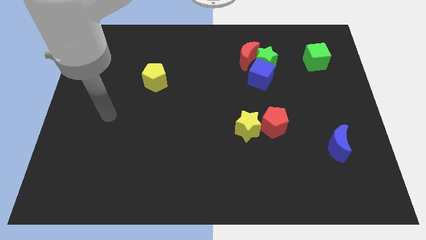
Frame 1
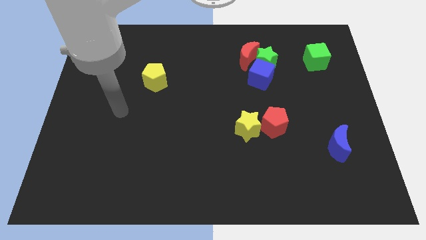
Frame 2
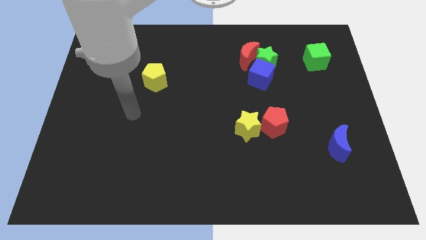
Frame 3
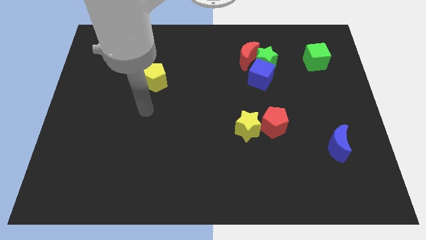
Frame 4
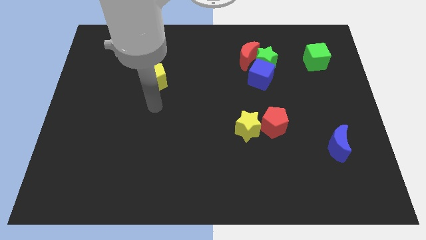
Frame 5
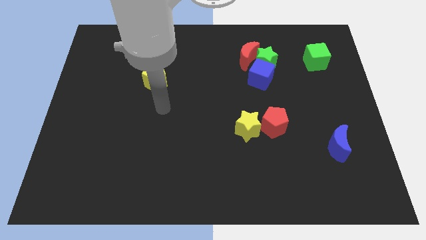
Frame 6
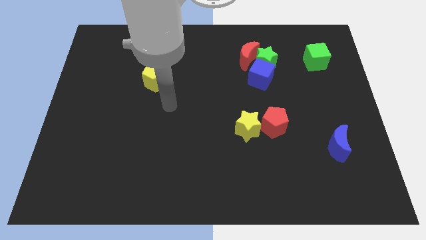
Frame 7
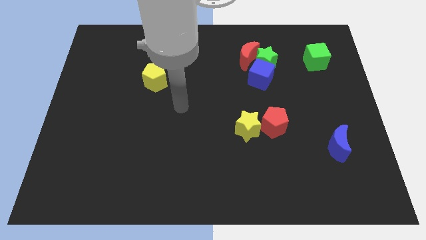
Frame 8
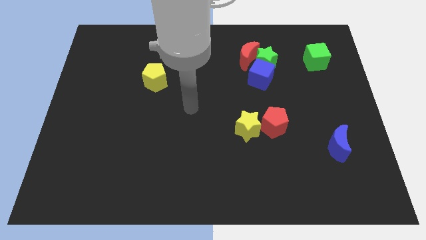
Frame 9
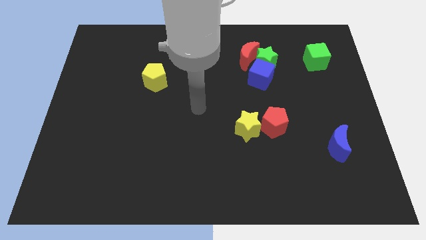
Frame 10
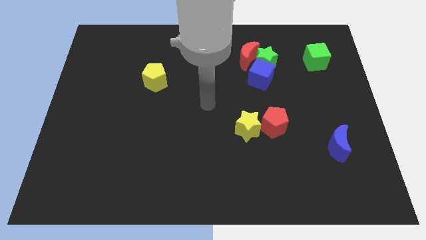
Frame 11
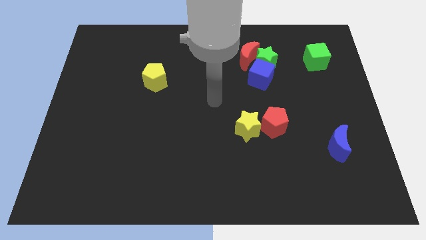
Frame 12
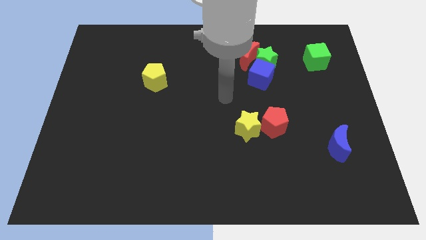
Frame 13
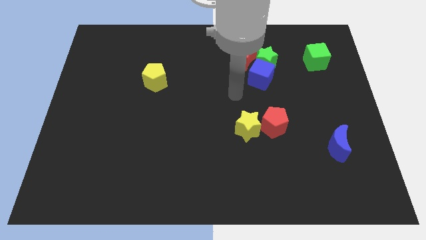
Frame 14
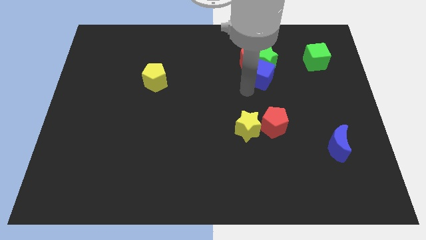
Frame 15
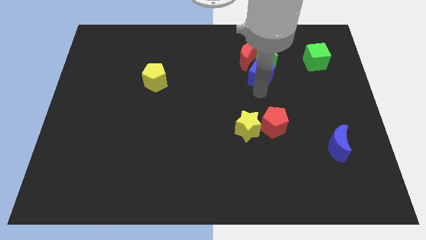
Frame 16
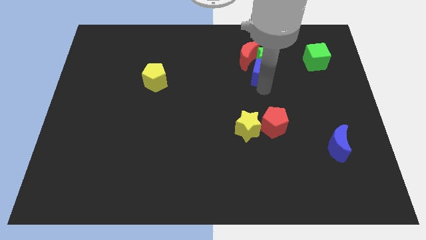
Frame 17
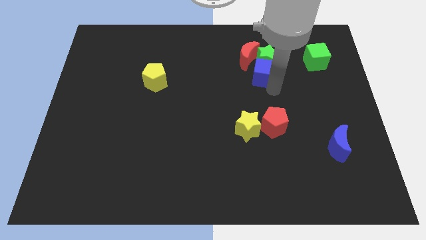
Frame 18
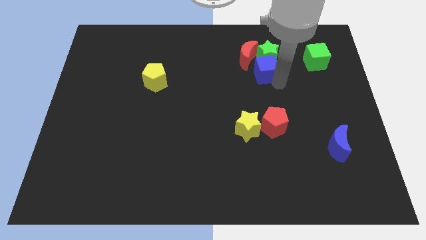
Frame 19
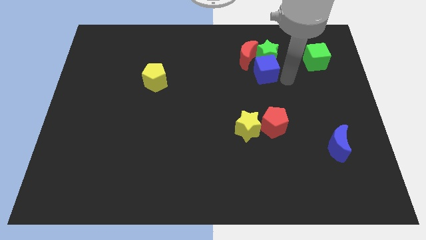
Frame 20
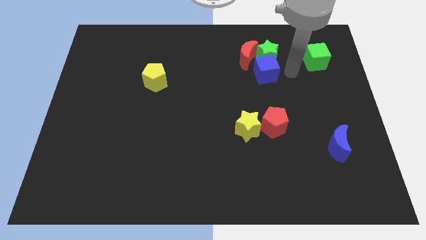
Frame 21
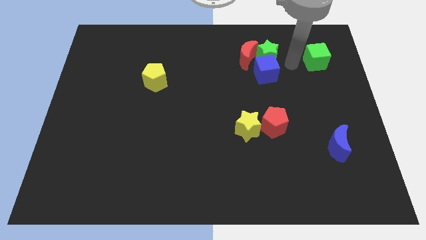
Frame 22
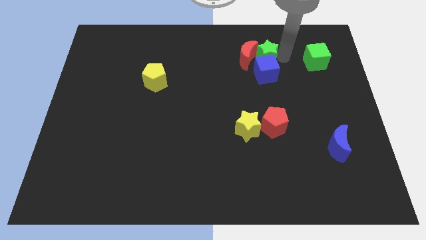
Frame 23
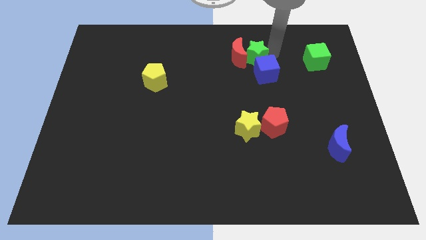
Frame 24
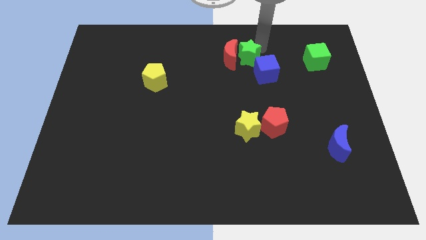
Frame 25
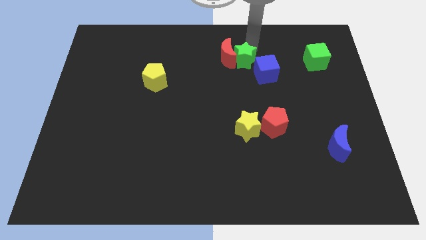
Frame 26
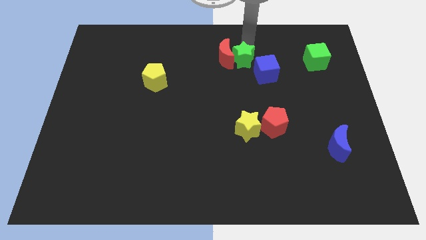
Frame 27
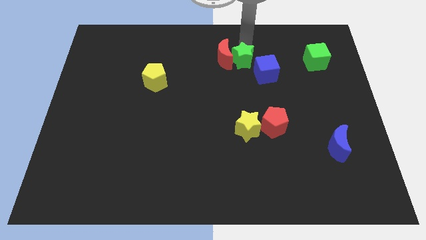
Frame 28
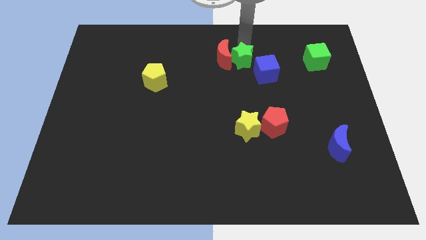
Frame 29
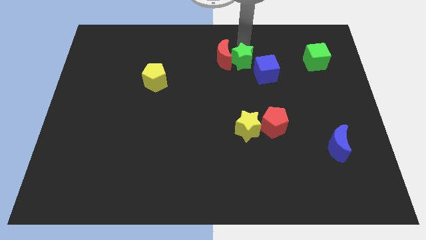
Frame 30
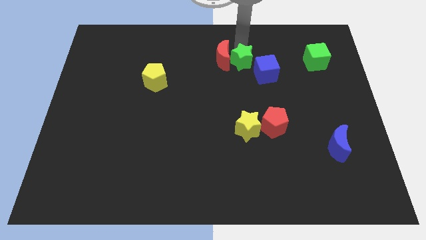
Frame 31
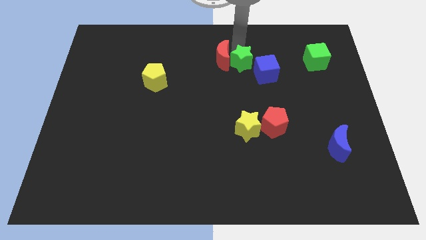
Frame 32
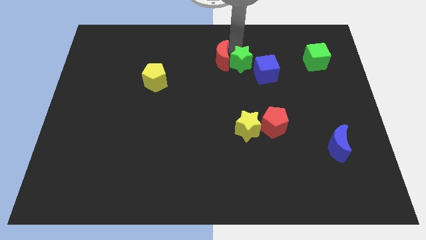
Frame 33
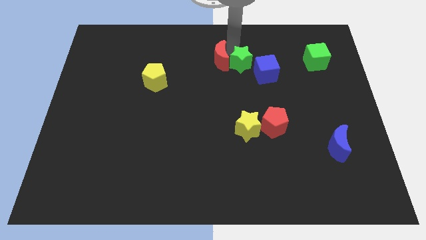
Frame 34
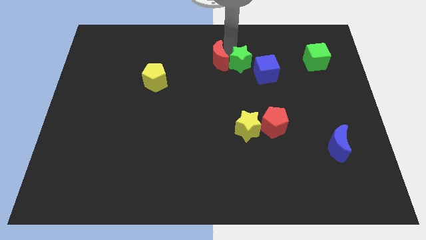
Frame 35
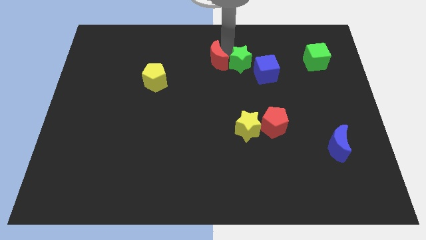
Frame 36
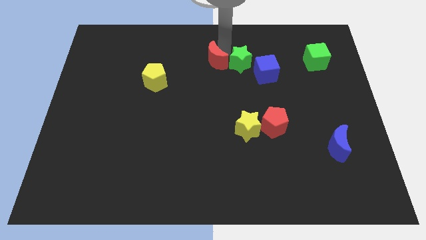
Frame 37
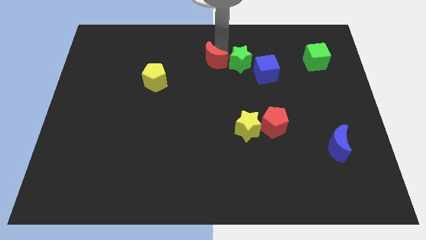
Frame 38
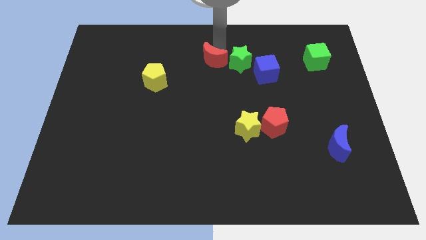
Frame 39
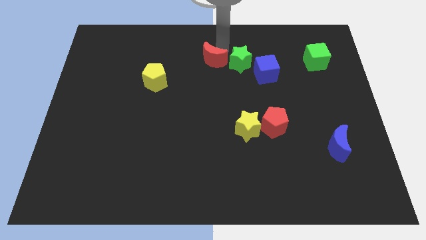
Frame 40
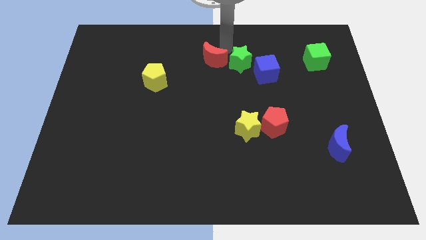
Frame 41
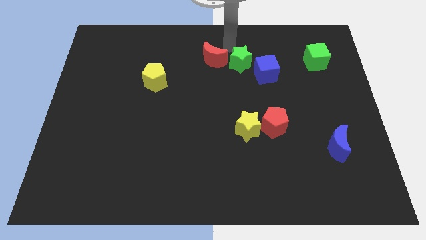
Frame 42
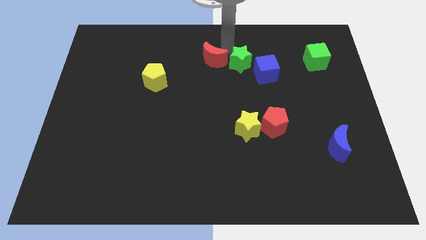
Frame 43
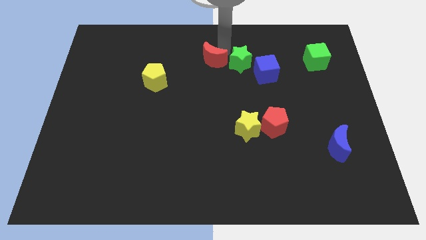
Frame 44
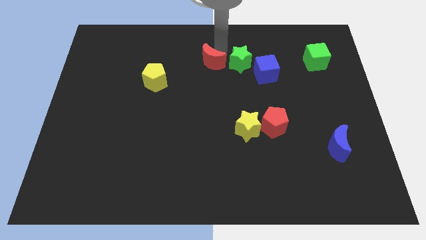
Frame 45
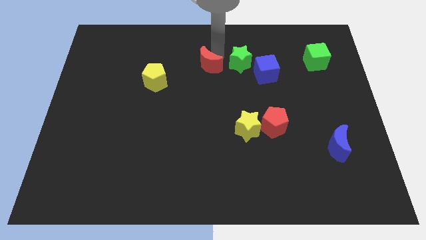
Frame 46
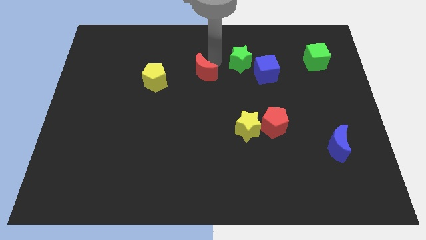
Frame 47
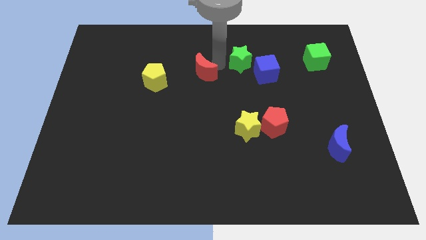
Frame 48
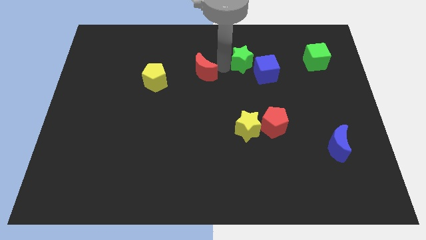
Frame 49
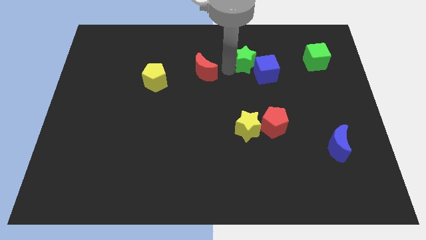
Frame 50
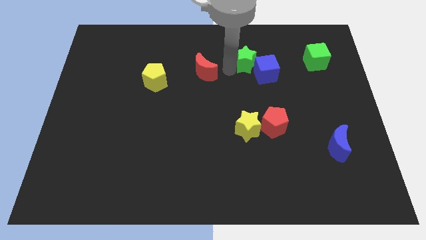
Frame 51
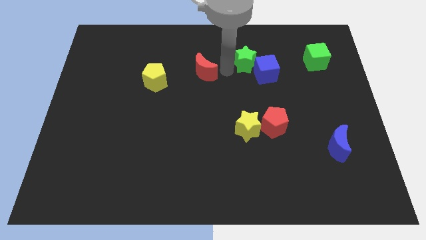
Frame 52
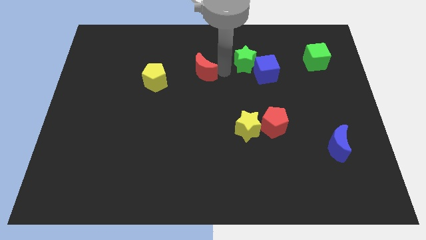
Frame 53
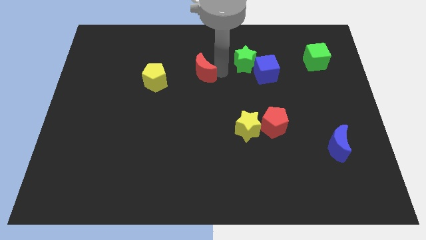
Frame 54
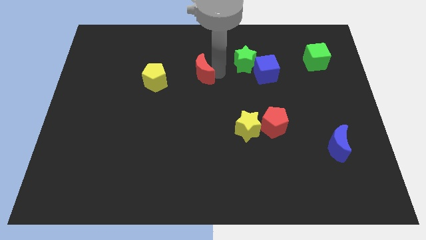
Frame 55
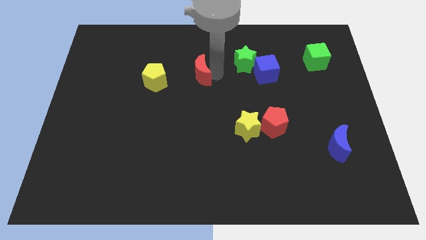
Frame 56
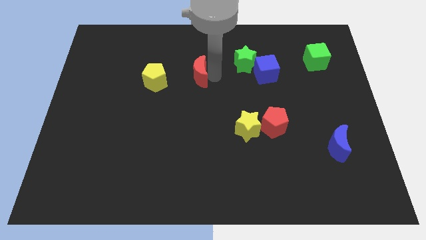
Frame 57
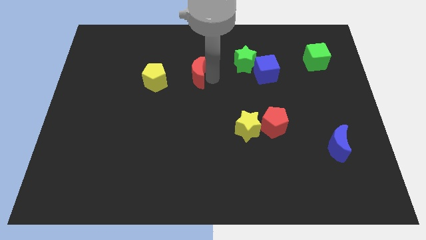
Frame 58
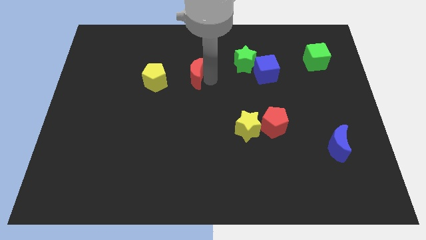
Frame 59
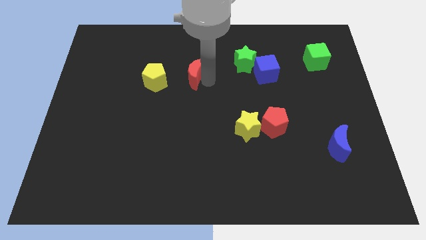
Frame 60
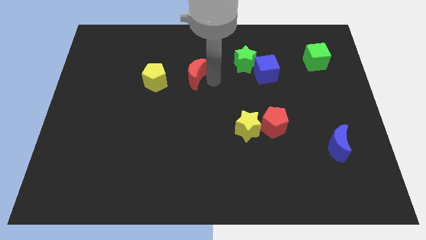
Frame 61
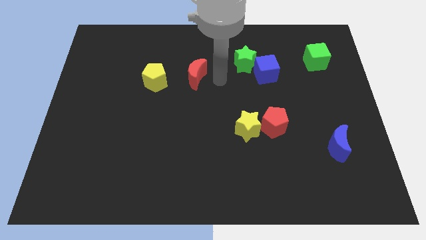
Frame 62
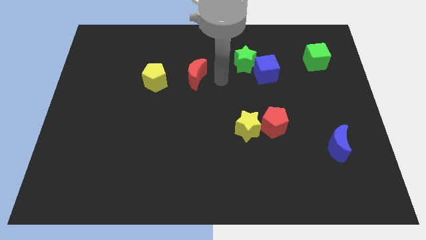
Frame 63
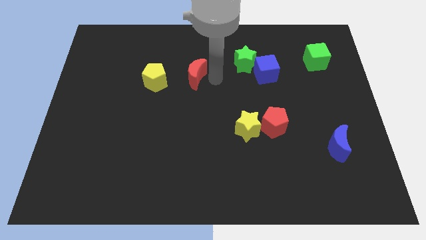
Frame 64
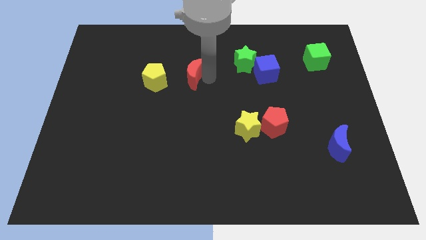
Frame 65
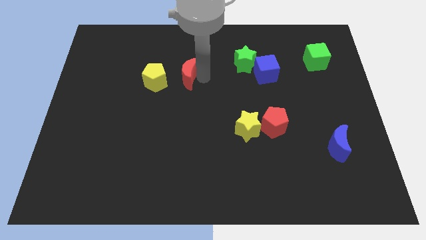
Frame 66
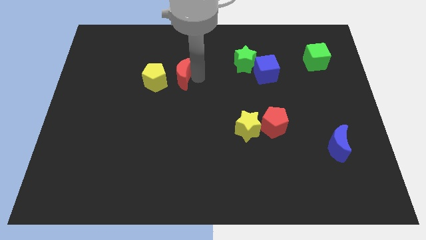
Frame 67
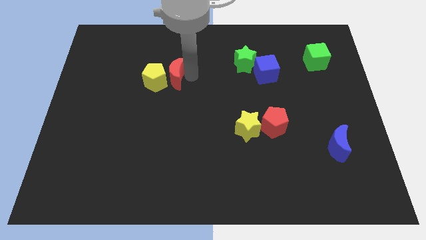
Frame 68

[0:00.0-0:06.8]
slide the red moon close to the yellow pentagon

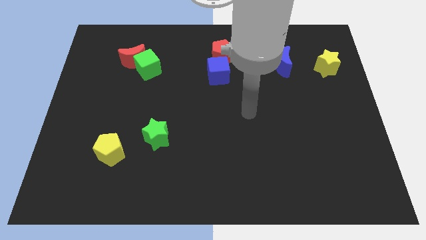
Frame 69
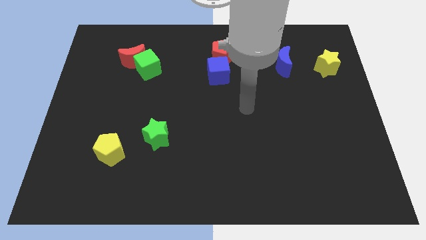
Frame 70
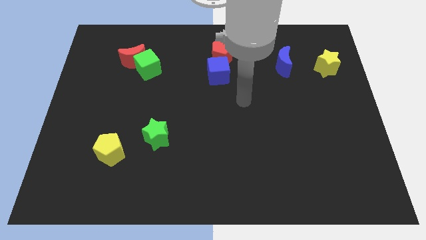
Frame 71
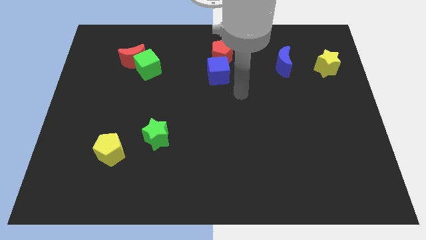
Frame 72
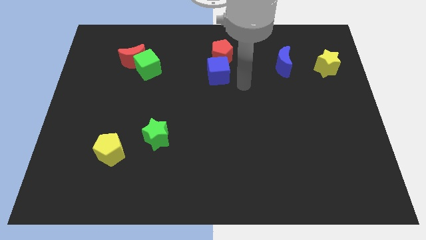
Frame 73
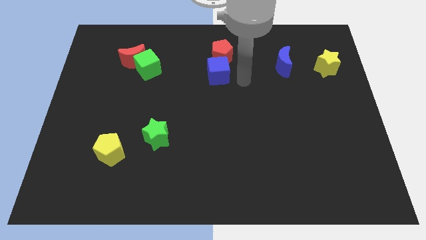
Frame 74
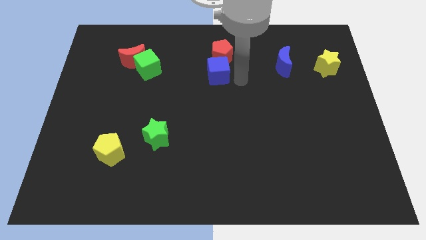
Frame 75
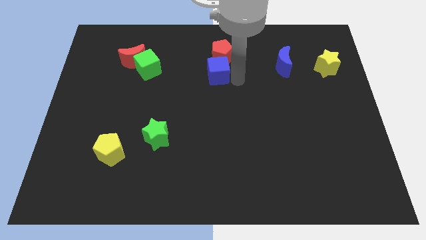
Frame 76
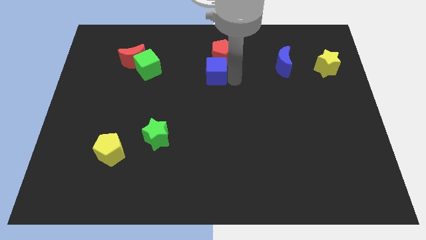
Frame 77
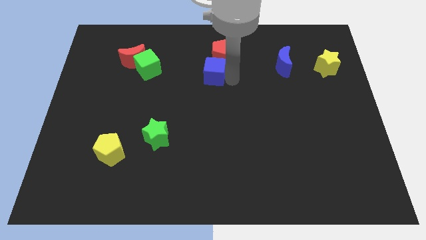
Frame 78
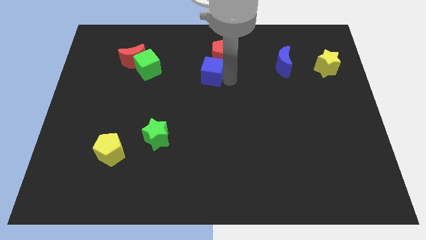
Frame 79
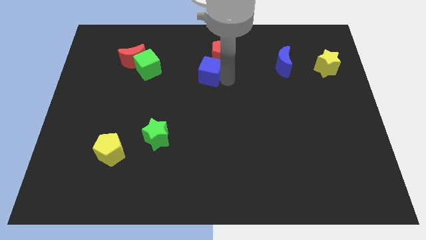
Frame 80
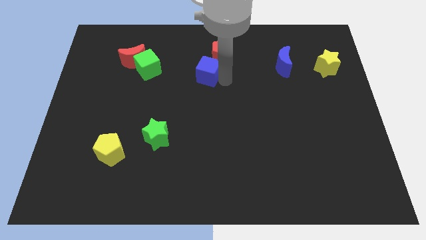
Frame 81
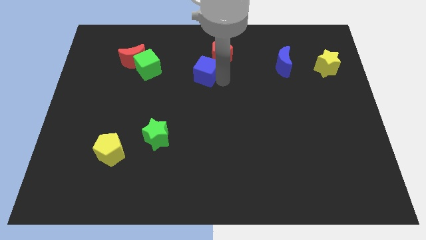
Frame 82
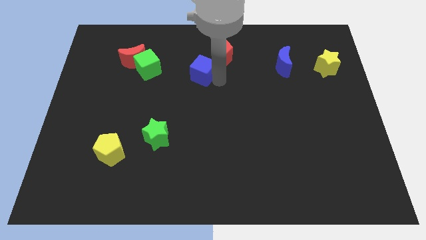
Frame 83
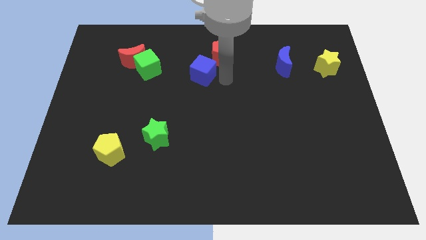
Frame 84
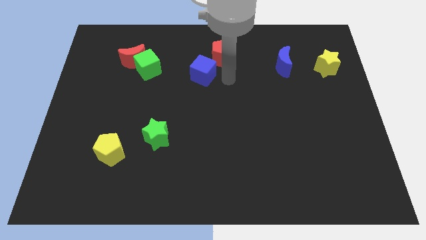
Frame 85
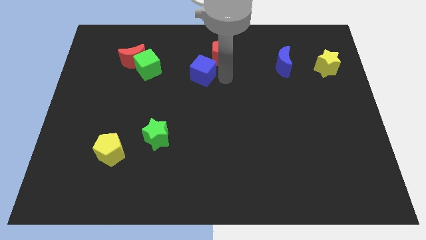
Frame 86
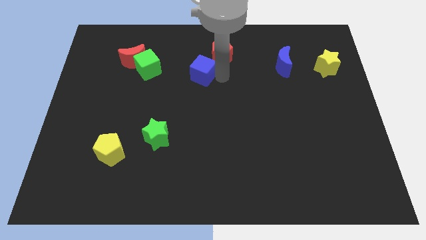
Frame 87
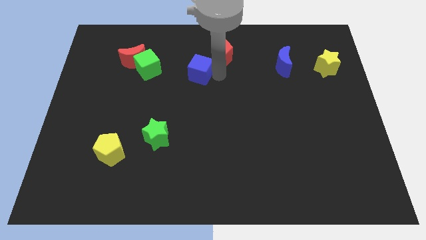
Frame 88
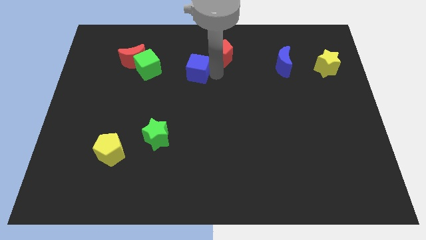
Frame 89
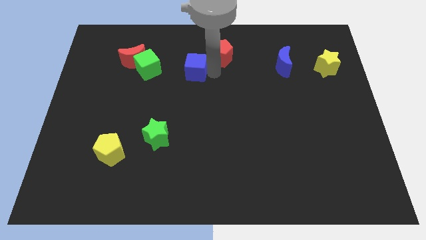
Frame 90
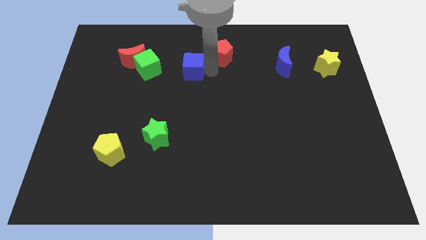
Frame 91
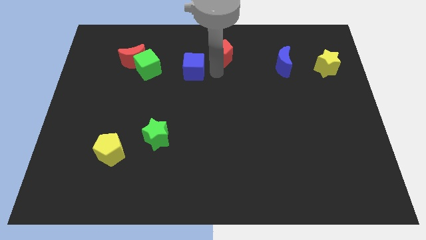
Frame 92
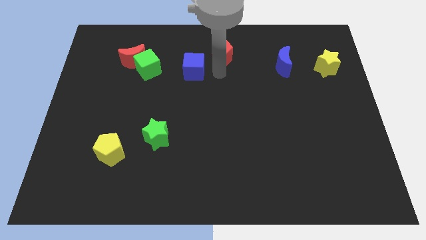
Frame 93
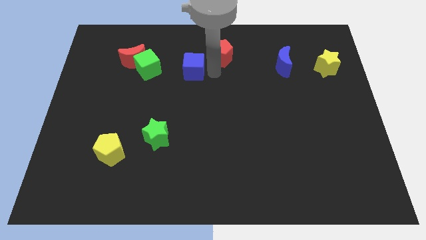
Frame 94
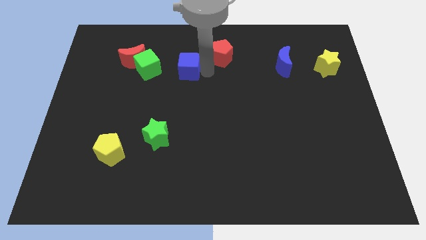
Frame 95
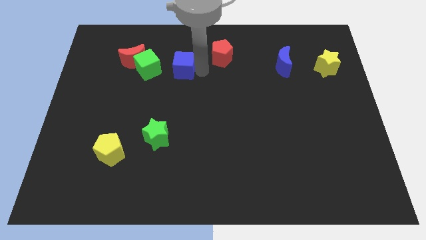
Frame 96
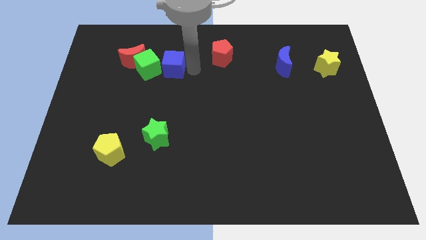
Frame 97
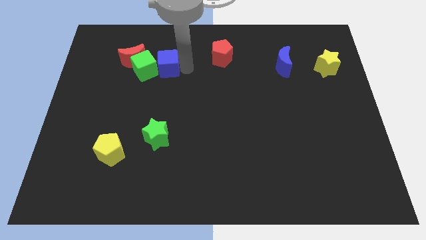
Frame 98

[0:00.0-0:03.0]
put the blue cube towards the green cube
